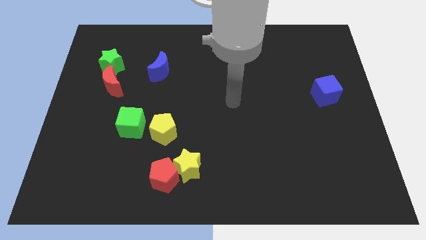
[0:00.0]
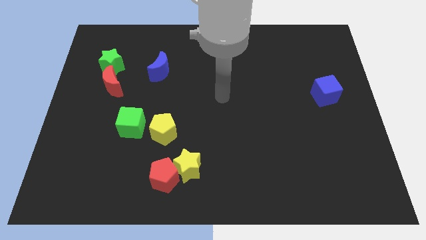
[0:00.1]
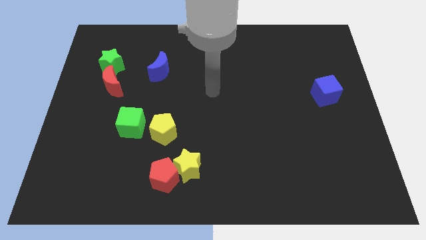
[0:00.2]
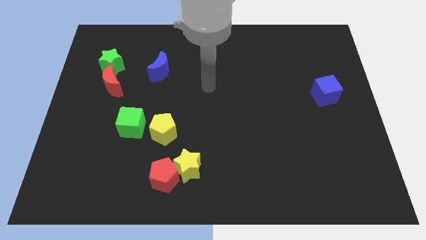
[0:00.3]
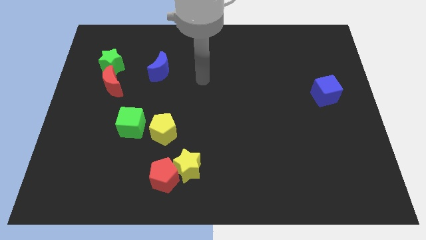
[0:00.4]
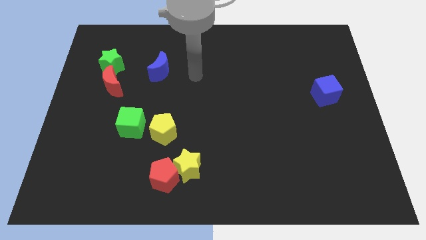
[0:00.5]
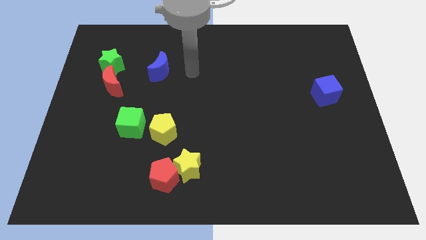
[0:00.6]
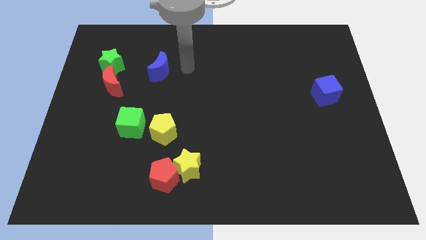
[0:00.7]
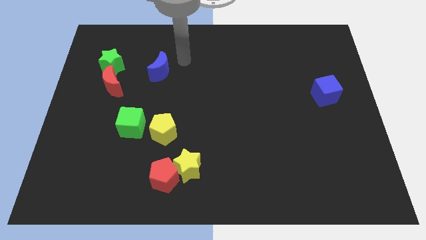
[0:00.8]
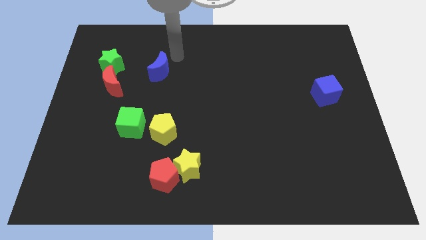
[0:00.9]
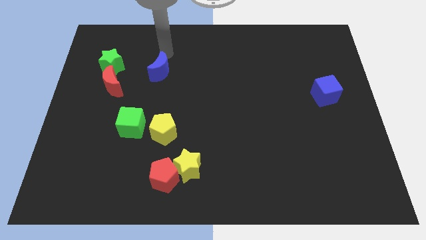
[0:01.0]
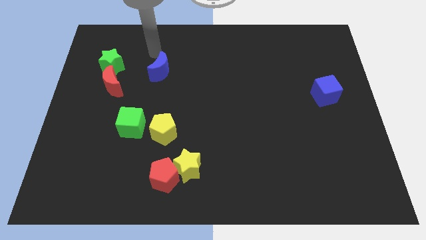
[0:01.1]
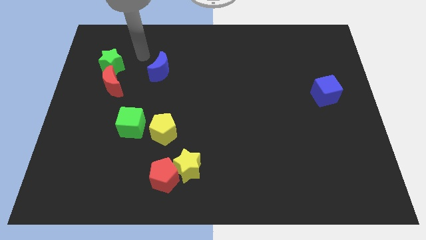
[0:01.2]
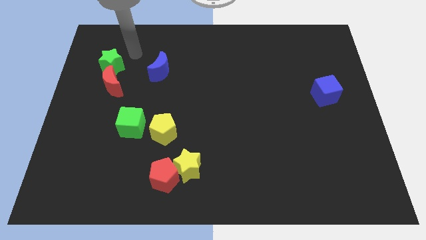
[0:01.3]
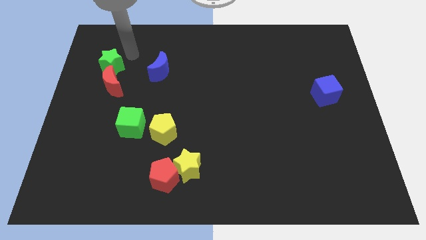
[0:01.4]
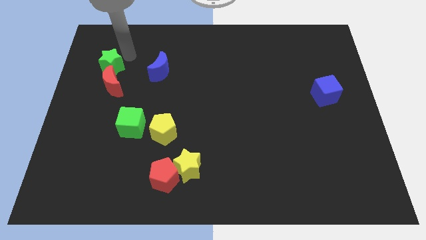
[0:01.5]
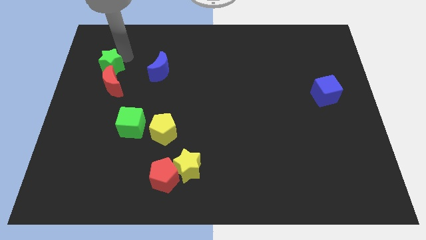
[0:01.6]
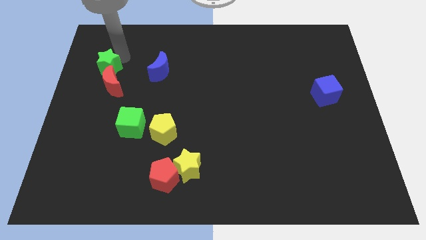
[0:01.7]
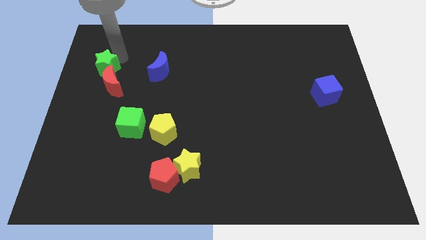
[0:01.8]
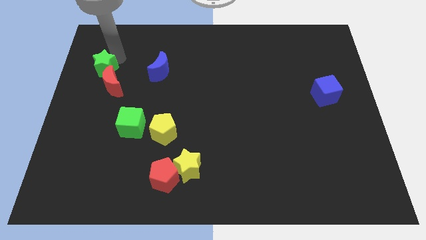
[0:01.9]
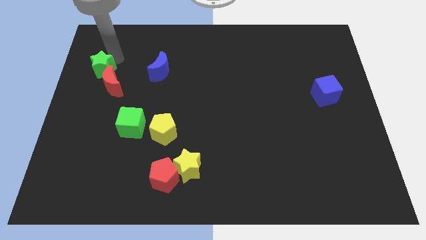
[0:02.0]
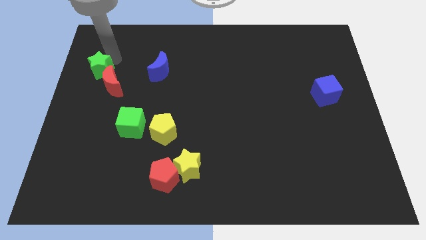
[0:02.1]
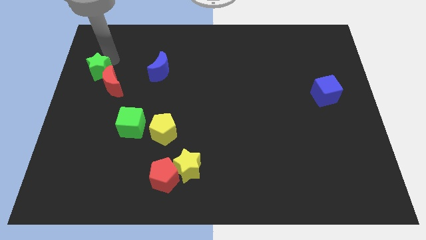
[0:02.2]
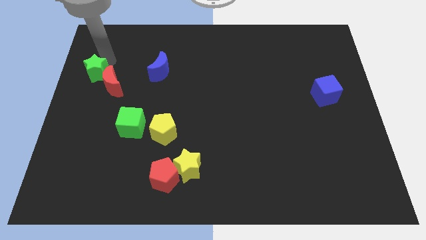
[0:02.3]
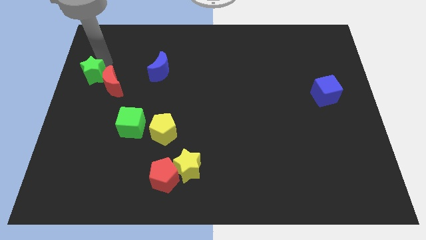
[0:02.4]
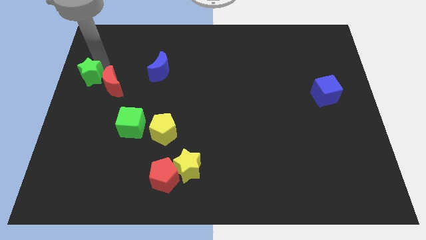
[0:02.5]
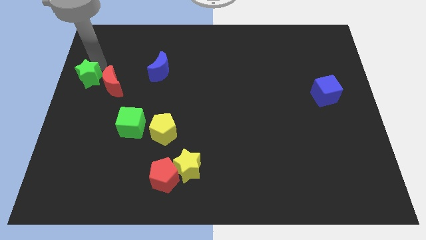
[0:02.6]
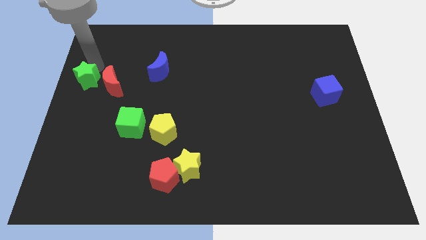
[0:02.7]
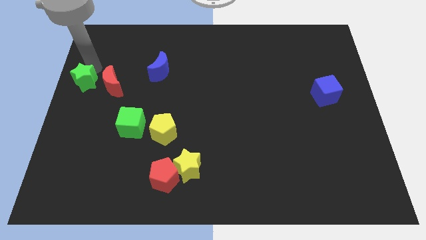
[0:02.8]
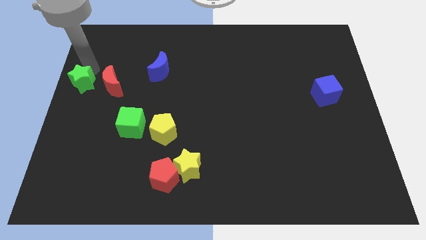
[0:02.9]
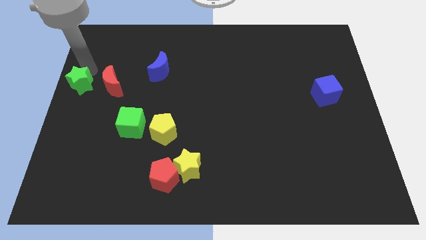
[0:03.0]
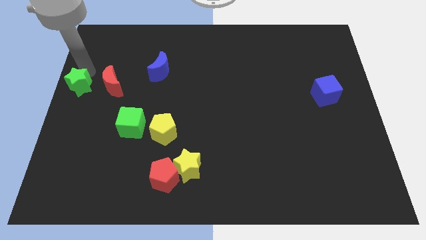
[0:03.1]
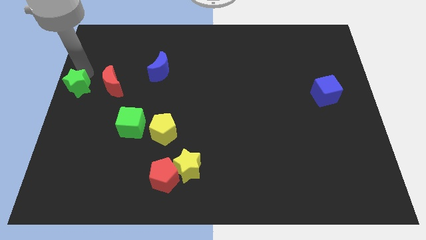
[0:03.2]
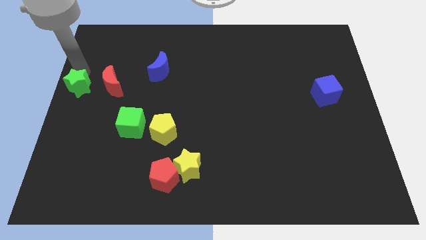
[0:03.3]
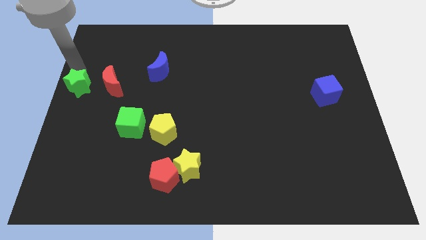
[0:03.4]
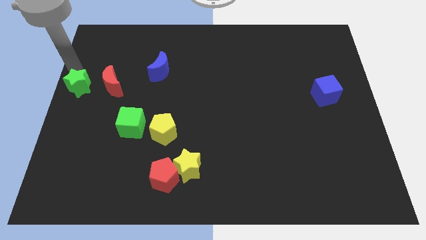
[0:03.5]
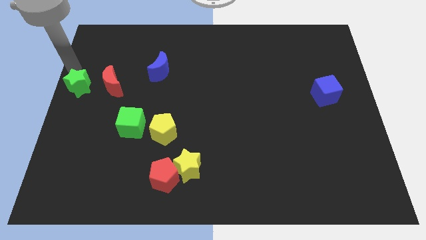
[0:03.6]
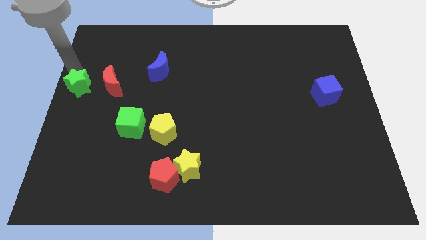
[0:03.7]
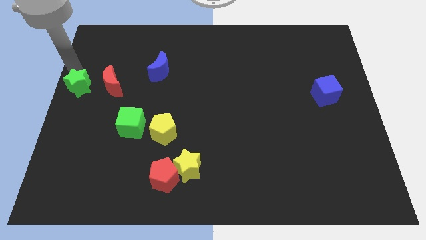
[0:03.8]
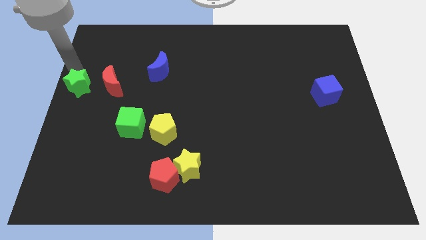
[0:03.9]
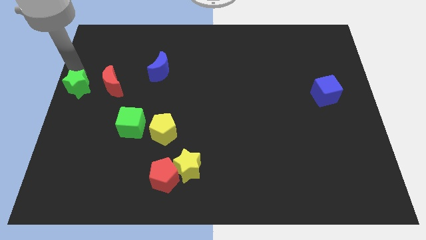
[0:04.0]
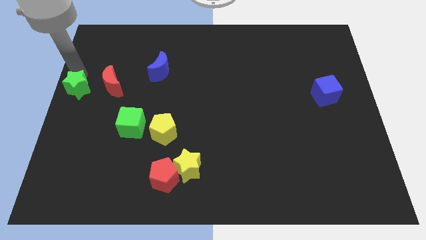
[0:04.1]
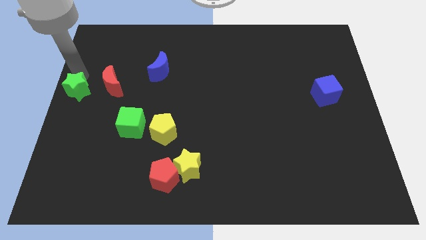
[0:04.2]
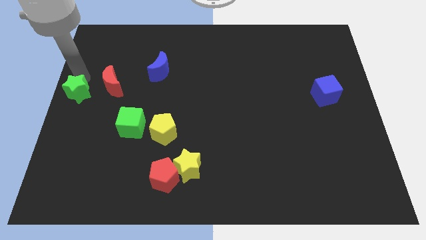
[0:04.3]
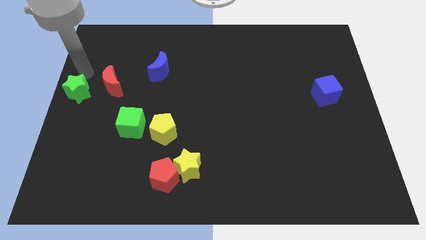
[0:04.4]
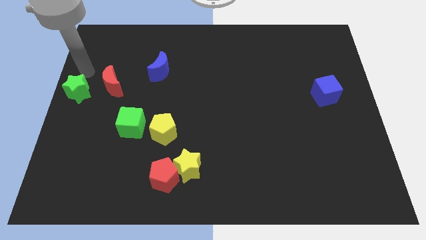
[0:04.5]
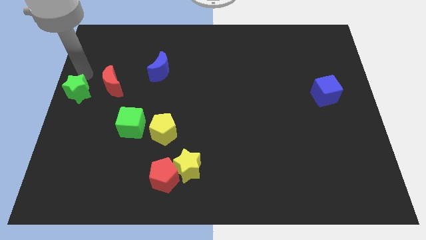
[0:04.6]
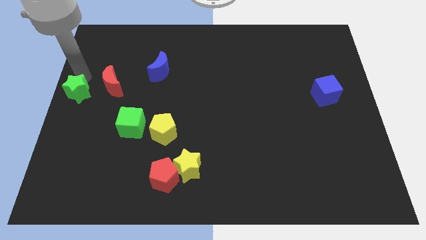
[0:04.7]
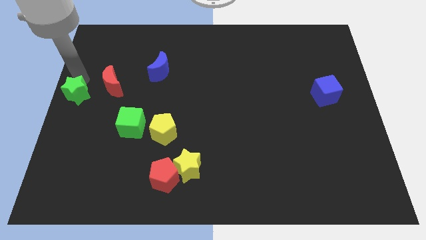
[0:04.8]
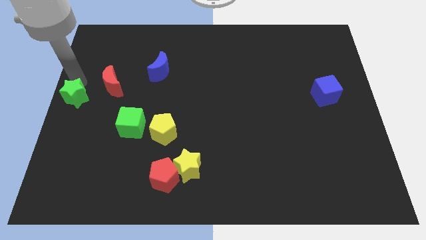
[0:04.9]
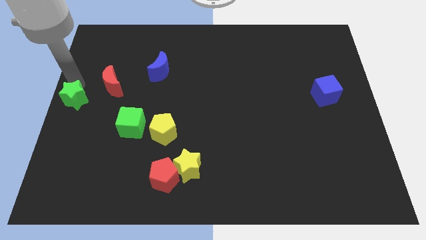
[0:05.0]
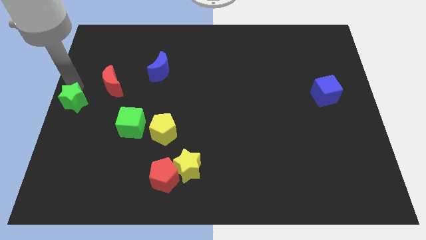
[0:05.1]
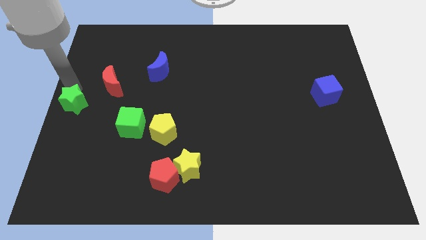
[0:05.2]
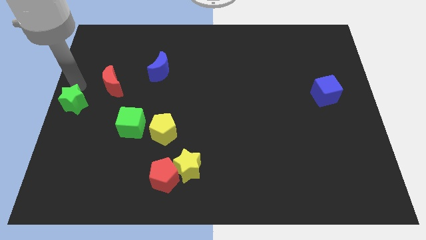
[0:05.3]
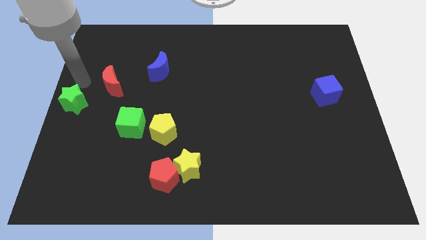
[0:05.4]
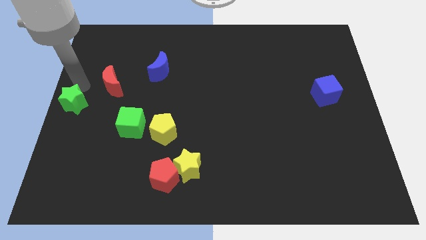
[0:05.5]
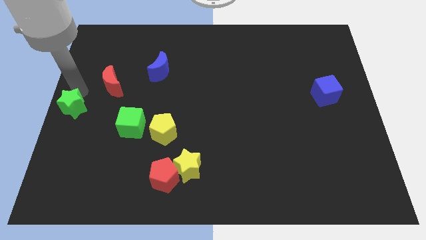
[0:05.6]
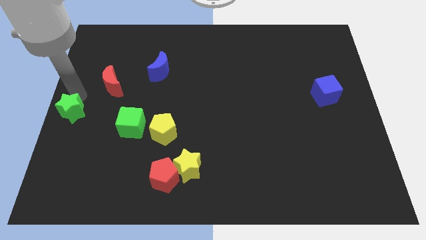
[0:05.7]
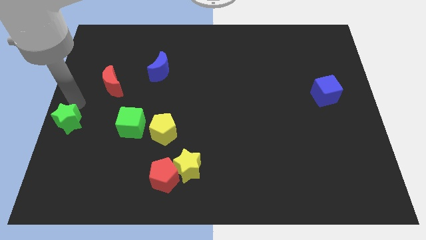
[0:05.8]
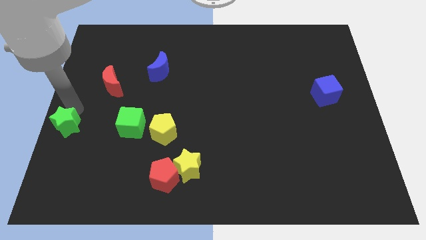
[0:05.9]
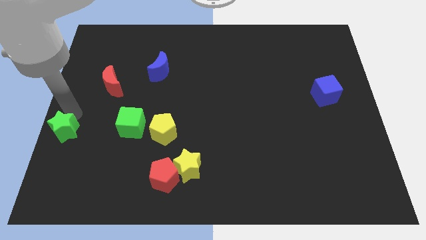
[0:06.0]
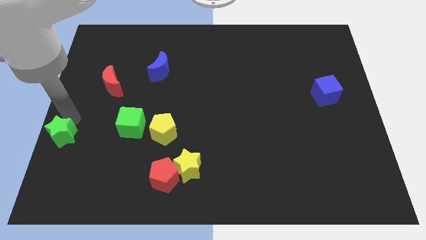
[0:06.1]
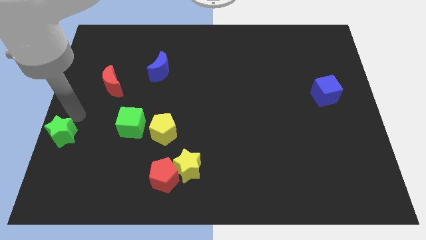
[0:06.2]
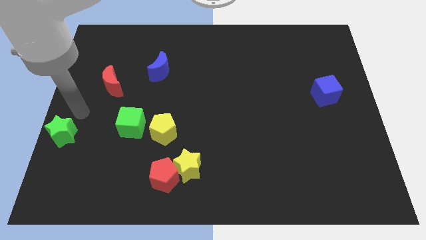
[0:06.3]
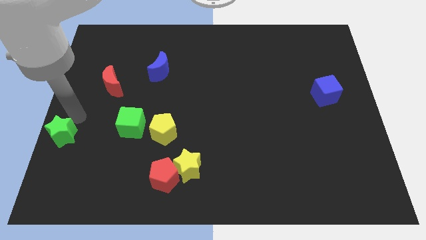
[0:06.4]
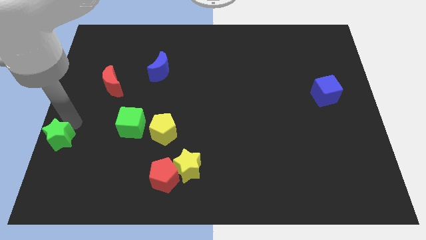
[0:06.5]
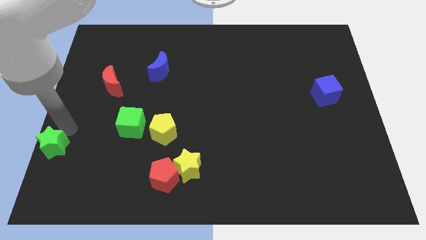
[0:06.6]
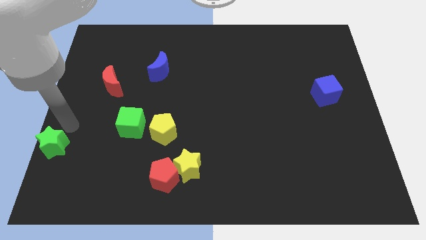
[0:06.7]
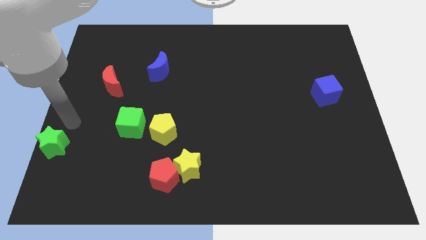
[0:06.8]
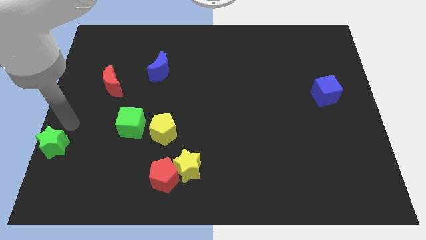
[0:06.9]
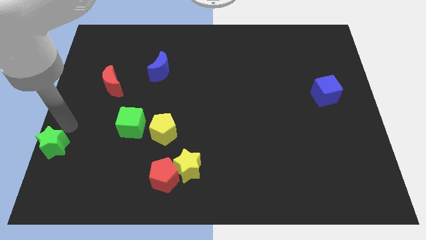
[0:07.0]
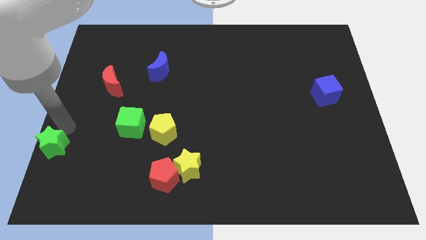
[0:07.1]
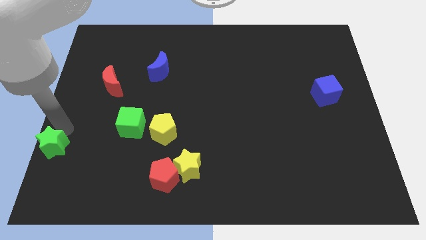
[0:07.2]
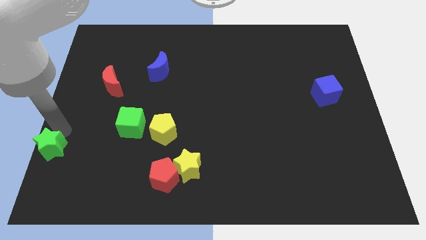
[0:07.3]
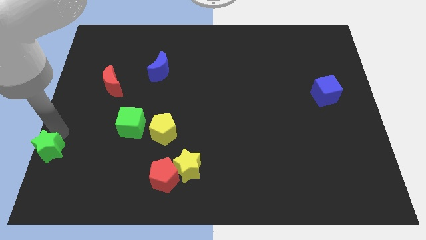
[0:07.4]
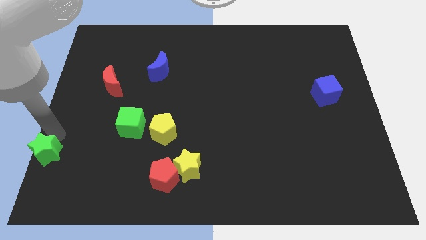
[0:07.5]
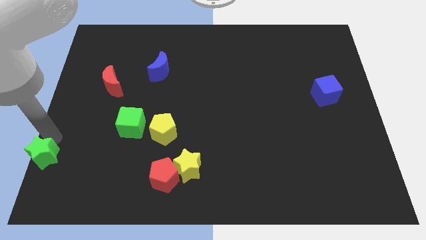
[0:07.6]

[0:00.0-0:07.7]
slide the green star to the bottom left of the board

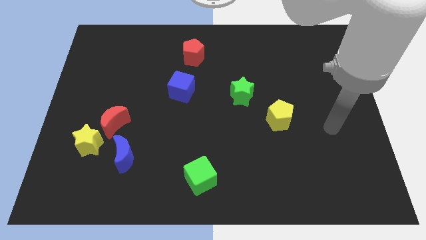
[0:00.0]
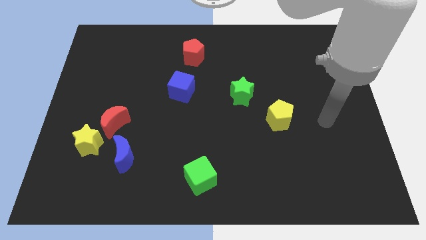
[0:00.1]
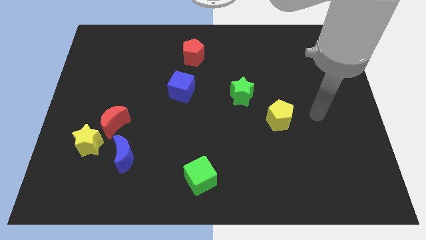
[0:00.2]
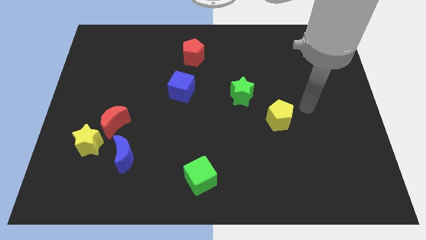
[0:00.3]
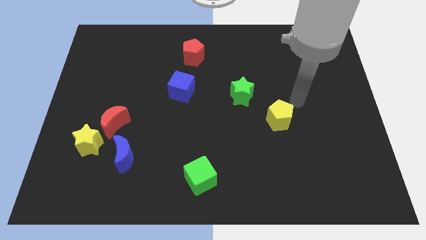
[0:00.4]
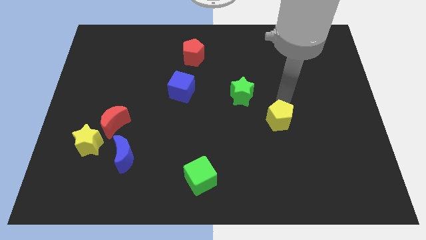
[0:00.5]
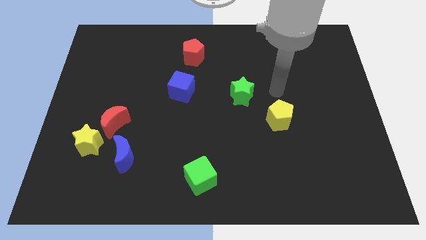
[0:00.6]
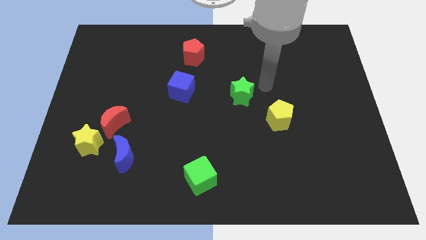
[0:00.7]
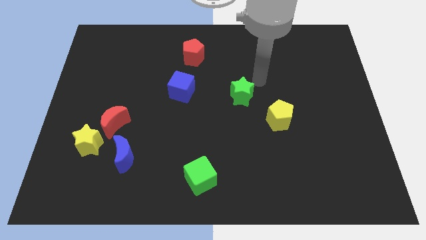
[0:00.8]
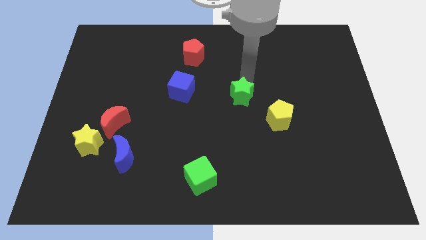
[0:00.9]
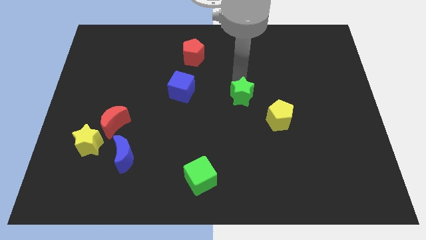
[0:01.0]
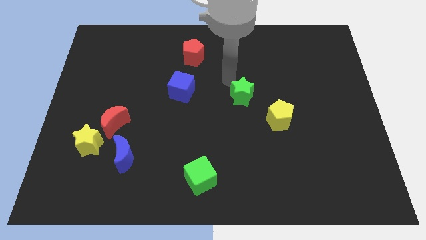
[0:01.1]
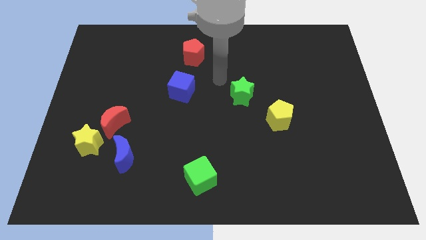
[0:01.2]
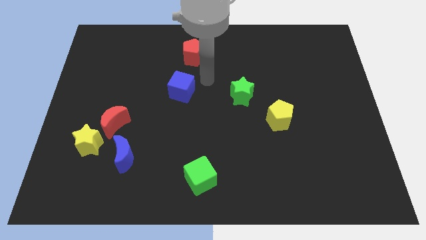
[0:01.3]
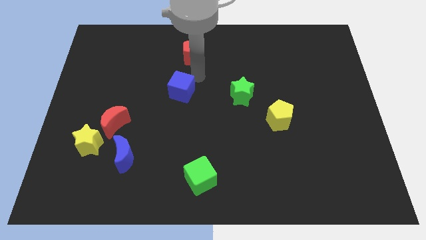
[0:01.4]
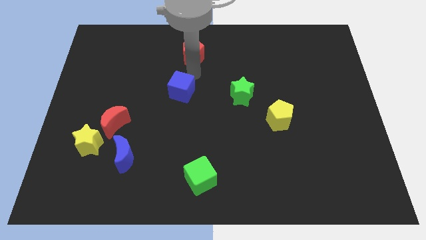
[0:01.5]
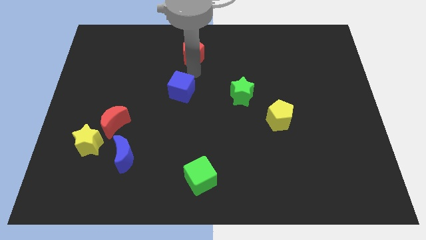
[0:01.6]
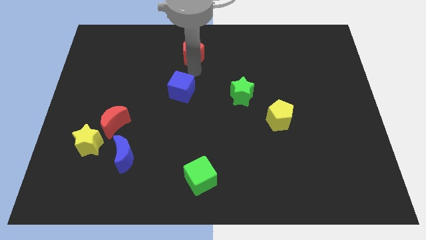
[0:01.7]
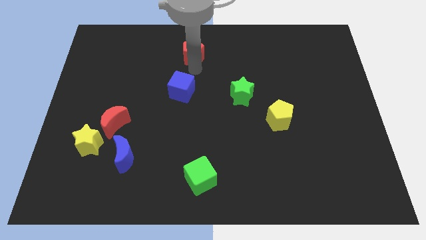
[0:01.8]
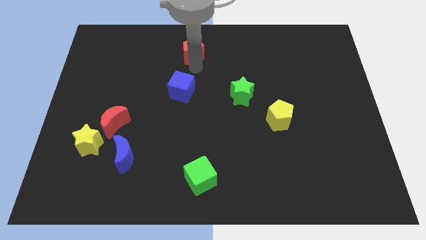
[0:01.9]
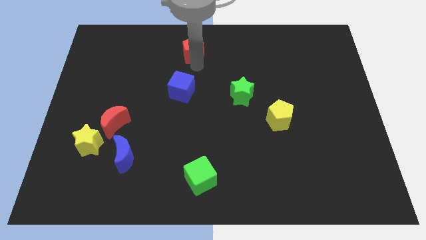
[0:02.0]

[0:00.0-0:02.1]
put the red pentagon to the top
